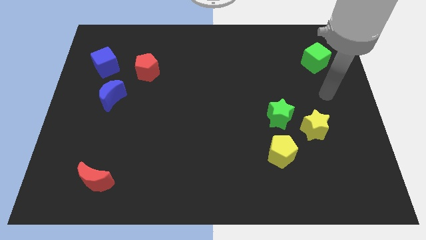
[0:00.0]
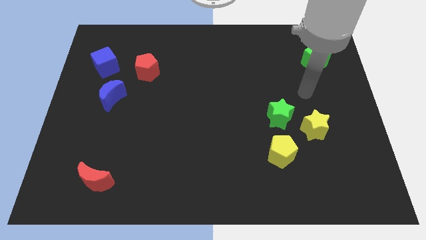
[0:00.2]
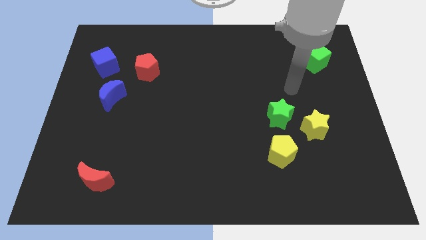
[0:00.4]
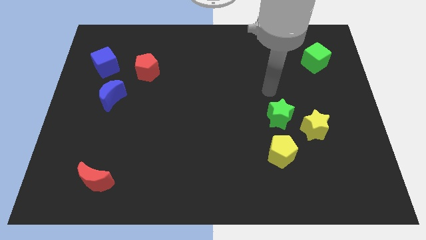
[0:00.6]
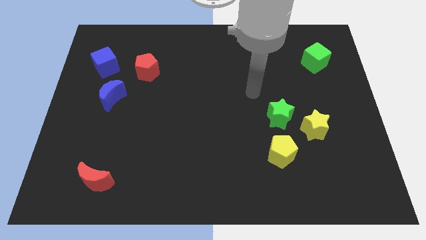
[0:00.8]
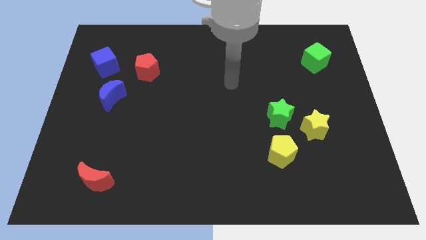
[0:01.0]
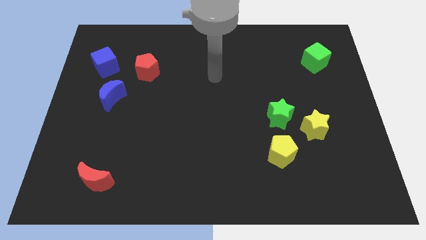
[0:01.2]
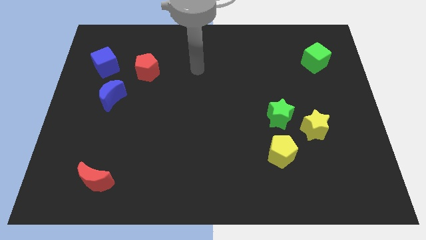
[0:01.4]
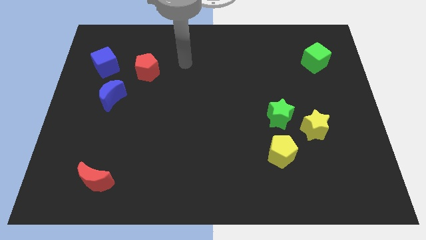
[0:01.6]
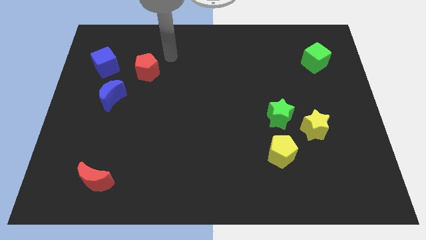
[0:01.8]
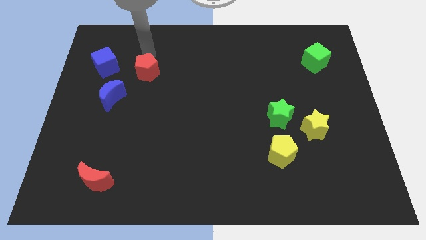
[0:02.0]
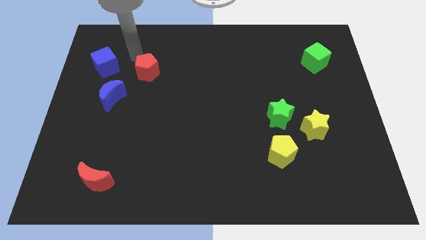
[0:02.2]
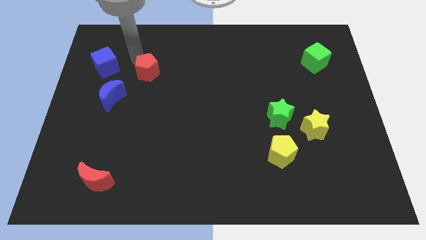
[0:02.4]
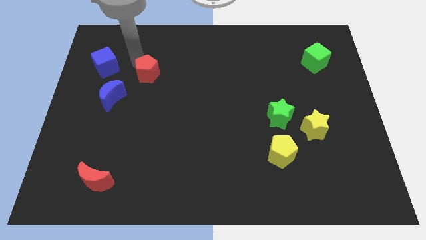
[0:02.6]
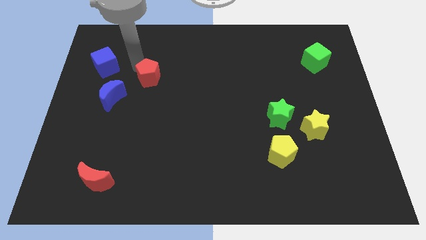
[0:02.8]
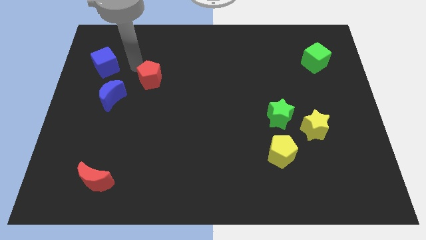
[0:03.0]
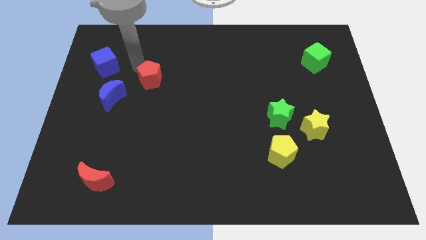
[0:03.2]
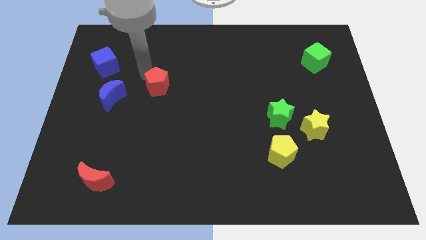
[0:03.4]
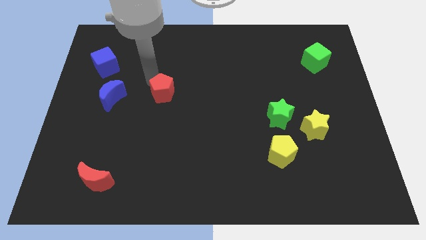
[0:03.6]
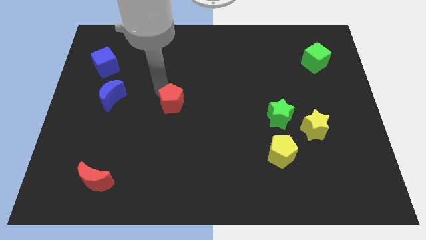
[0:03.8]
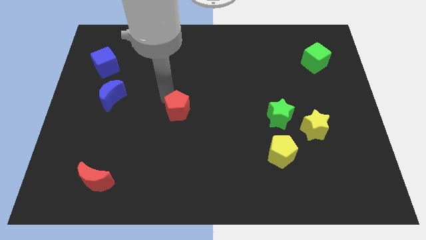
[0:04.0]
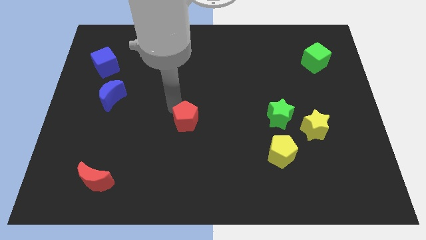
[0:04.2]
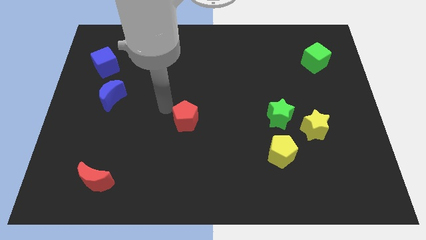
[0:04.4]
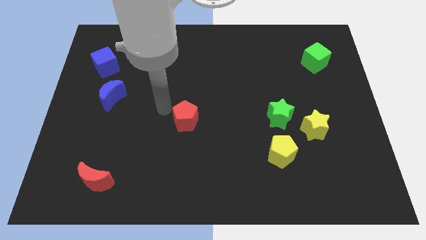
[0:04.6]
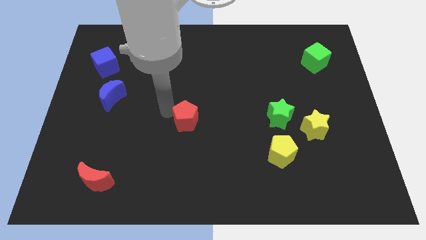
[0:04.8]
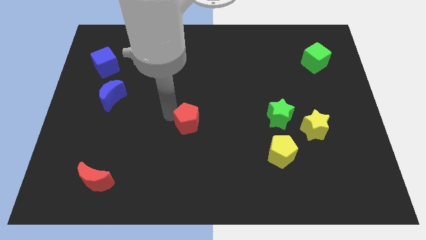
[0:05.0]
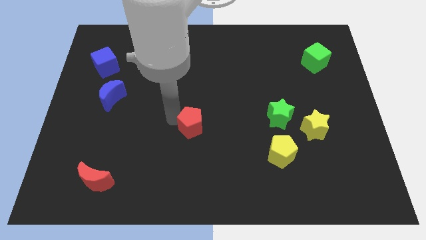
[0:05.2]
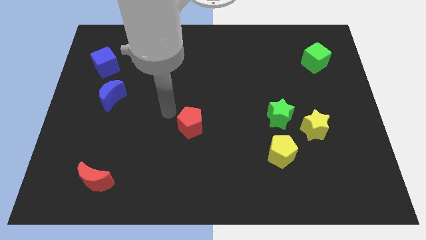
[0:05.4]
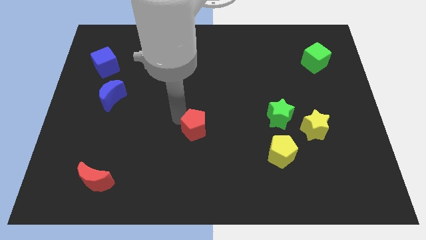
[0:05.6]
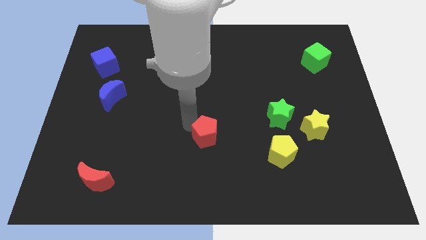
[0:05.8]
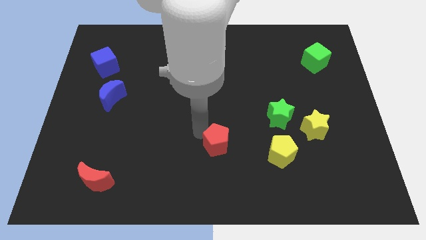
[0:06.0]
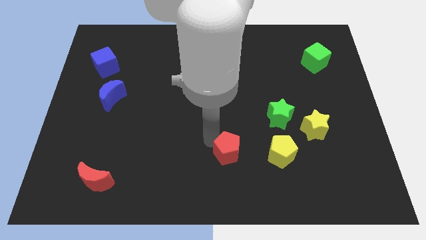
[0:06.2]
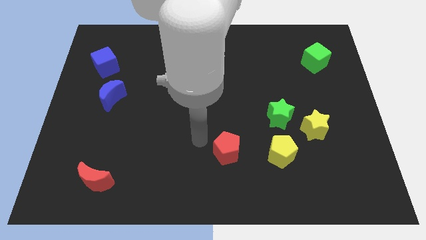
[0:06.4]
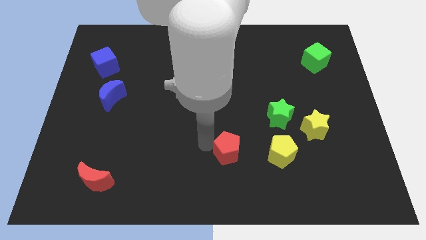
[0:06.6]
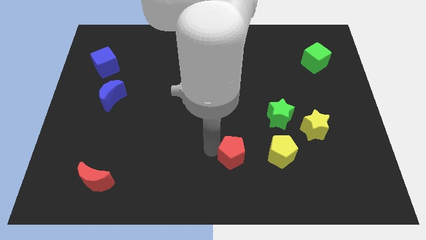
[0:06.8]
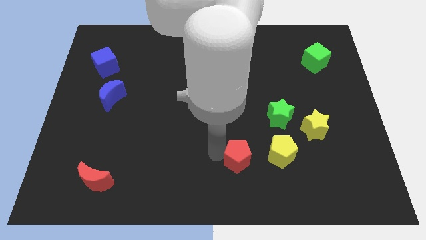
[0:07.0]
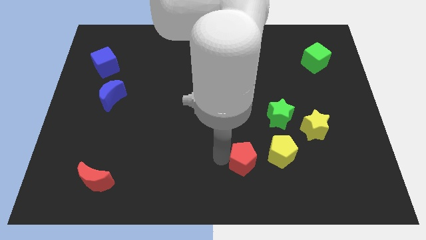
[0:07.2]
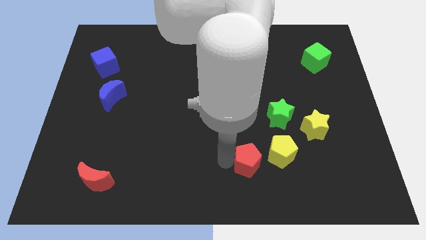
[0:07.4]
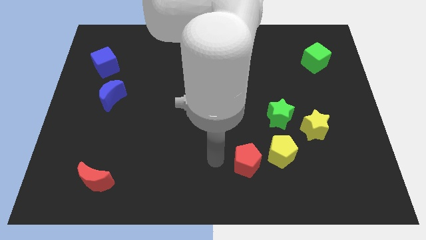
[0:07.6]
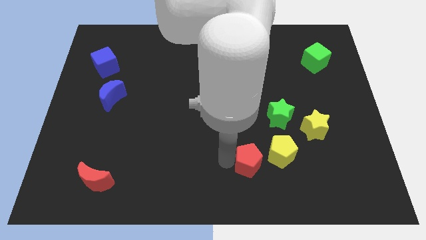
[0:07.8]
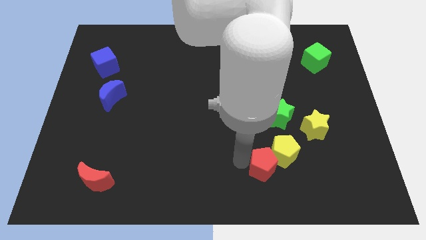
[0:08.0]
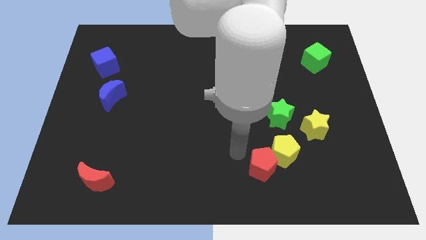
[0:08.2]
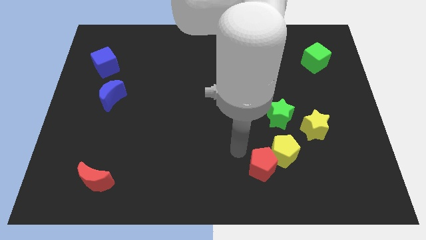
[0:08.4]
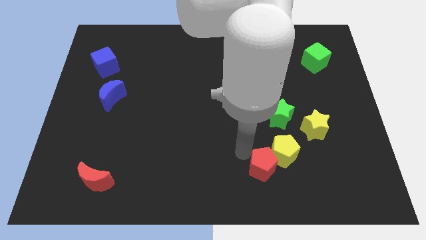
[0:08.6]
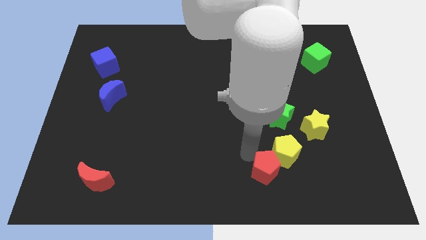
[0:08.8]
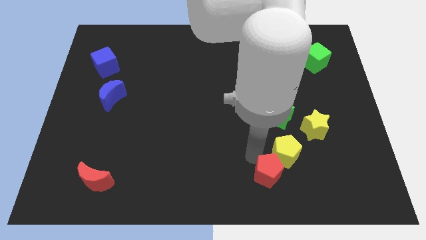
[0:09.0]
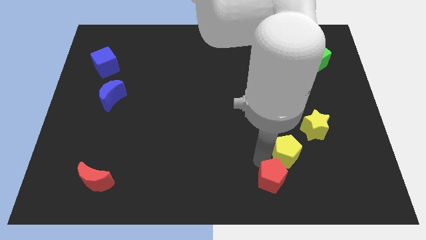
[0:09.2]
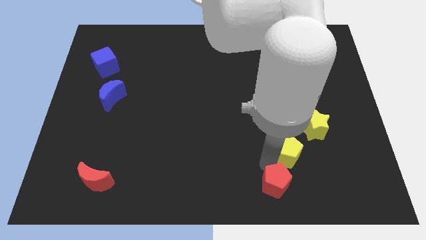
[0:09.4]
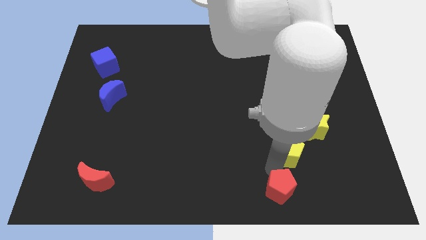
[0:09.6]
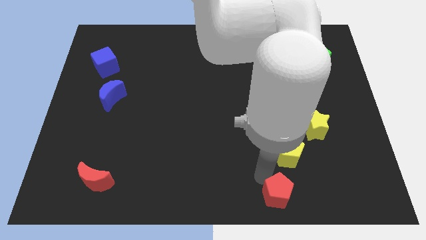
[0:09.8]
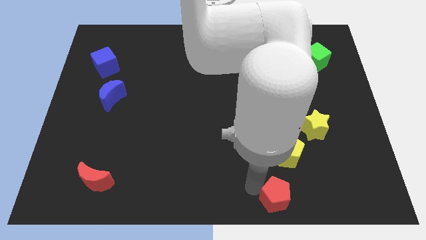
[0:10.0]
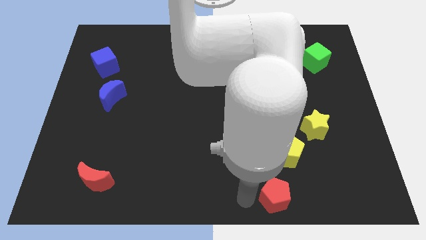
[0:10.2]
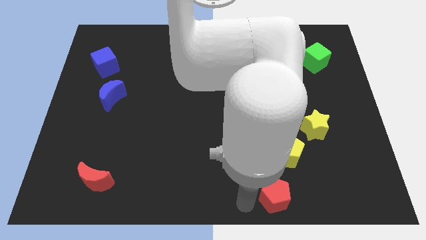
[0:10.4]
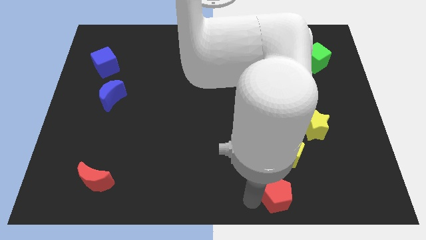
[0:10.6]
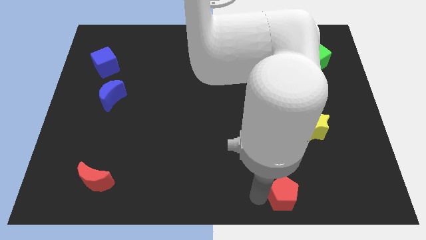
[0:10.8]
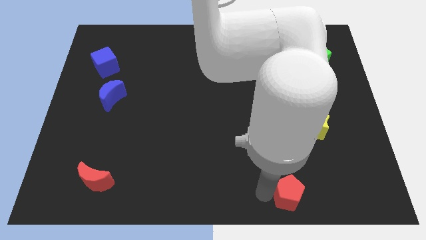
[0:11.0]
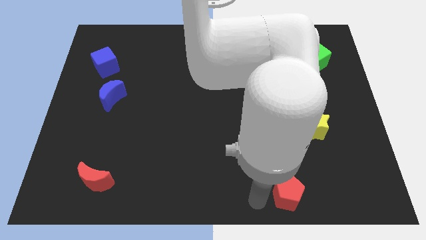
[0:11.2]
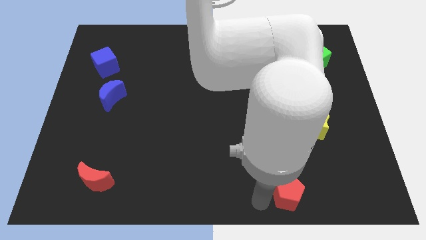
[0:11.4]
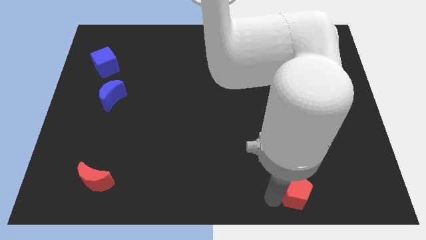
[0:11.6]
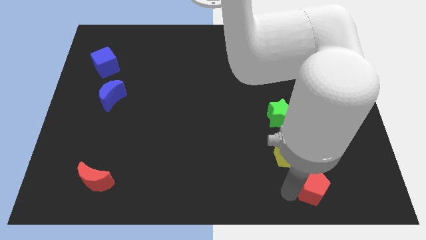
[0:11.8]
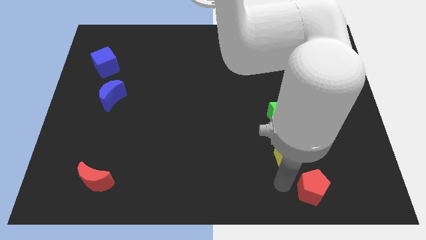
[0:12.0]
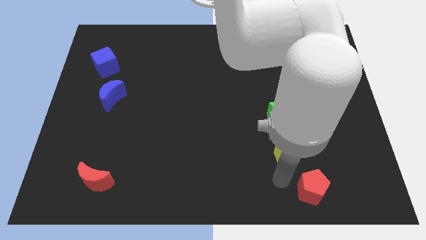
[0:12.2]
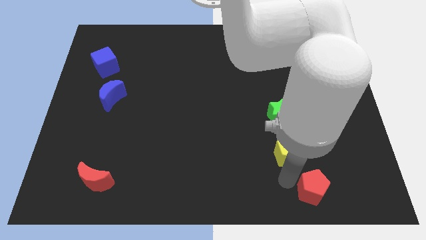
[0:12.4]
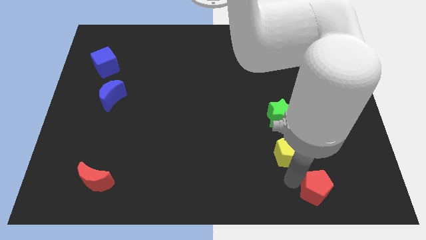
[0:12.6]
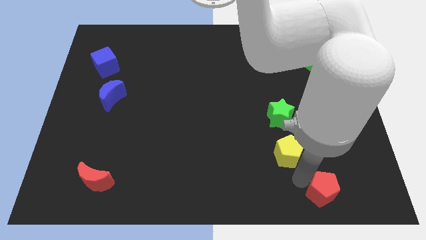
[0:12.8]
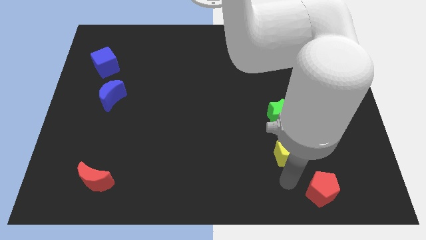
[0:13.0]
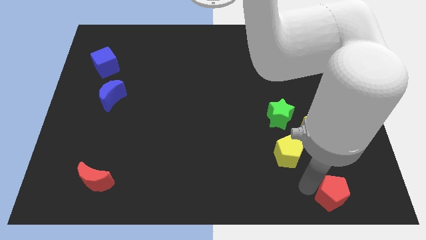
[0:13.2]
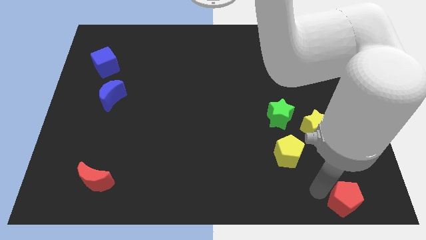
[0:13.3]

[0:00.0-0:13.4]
move the red pentagon to the bottom right
